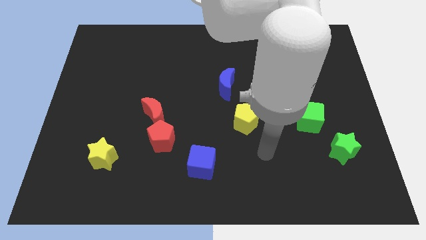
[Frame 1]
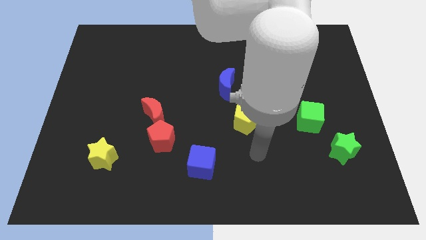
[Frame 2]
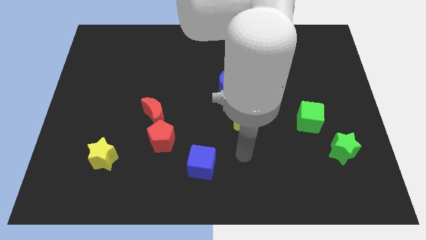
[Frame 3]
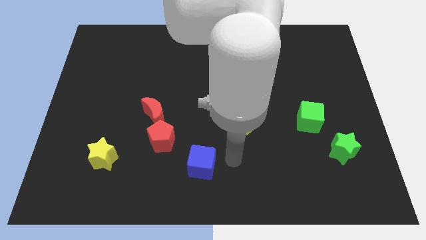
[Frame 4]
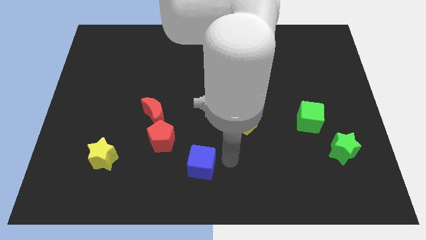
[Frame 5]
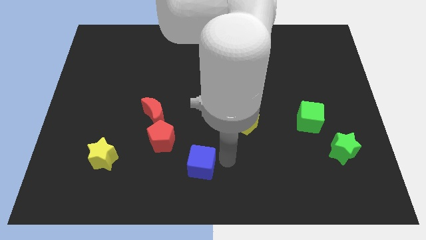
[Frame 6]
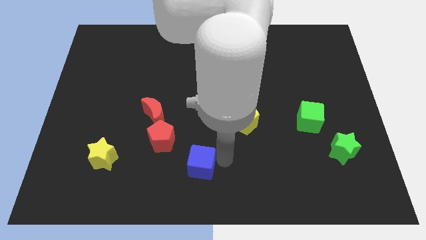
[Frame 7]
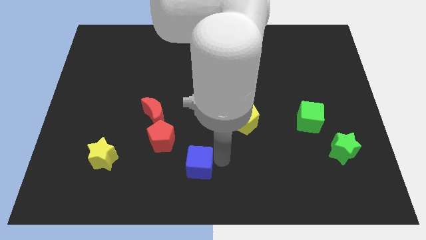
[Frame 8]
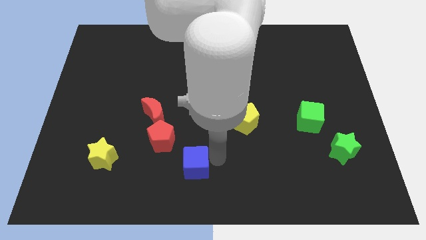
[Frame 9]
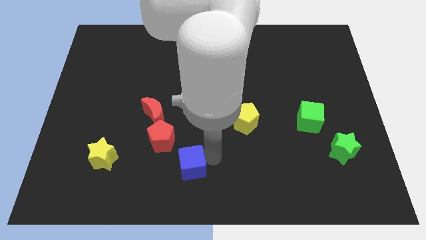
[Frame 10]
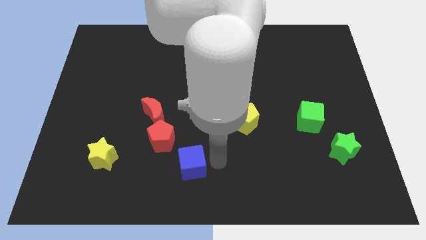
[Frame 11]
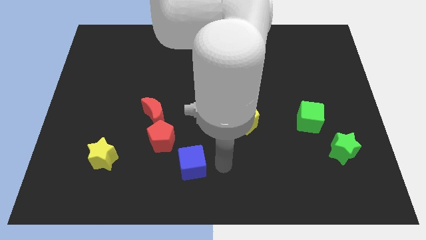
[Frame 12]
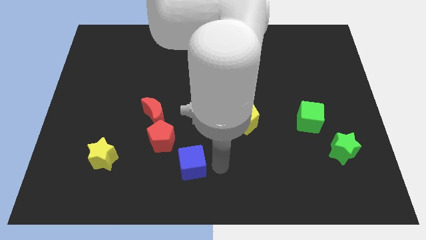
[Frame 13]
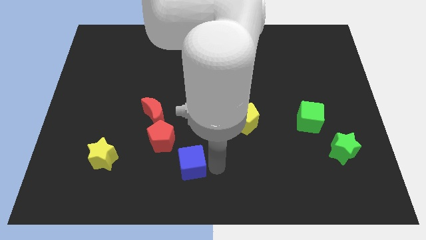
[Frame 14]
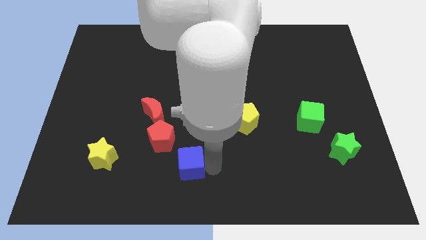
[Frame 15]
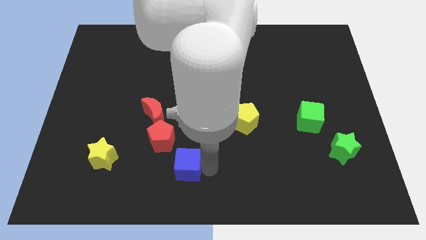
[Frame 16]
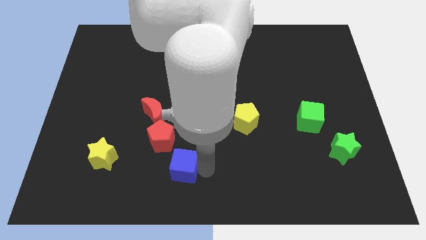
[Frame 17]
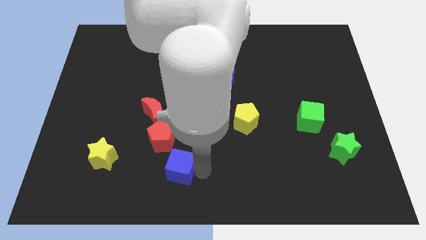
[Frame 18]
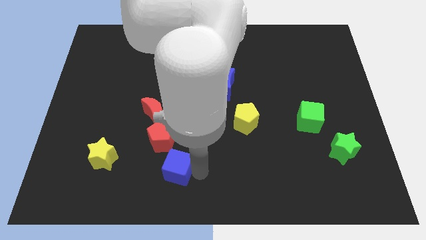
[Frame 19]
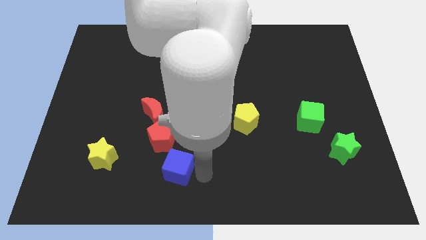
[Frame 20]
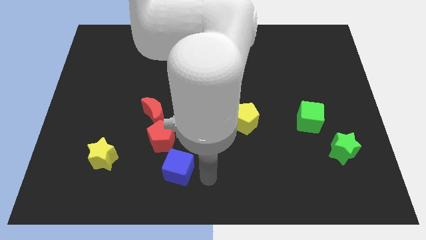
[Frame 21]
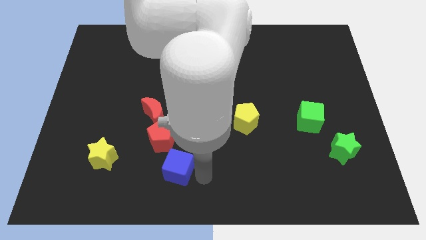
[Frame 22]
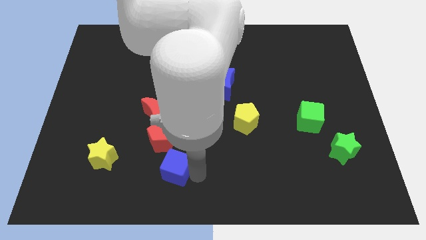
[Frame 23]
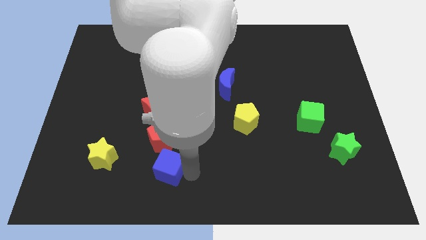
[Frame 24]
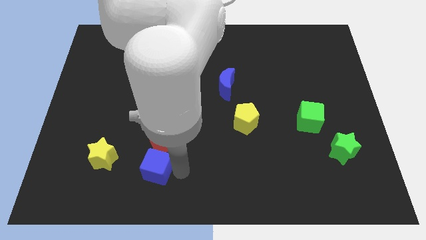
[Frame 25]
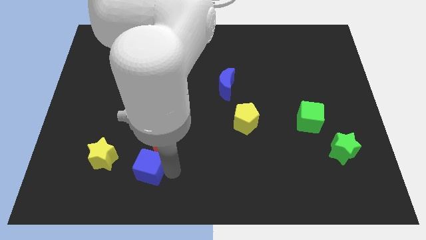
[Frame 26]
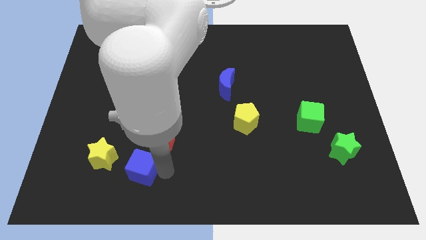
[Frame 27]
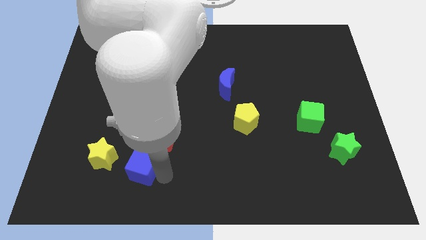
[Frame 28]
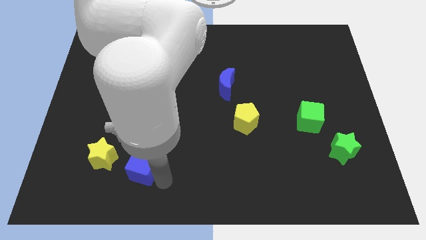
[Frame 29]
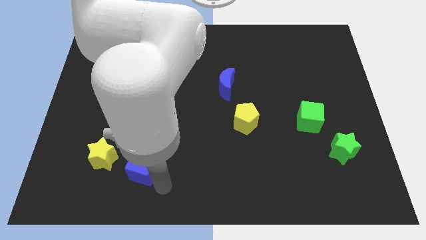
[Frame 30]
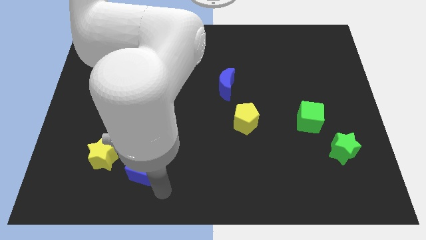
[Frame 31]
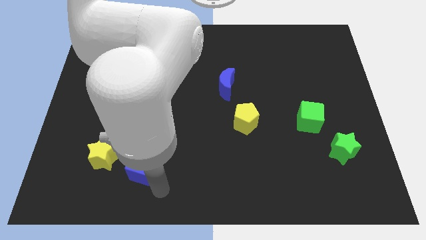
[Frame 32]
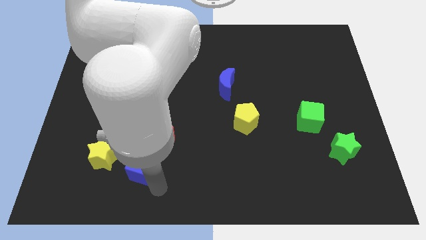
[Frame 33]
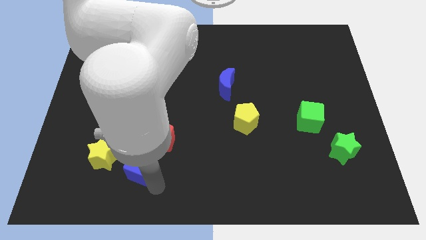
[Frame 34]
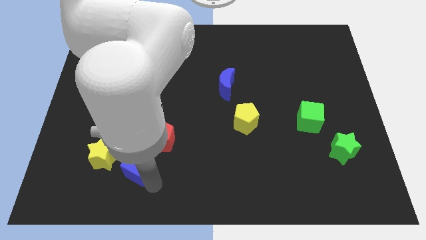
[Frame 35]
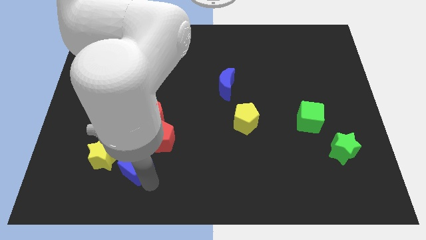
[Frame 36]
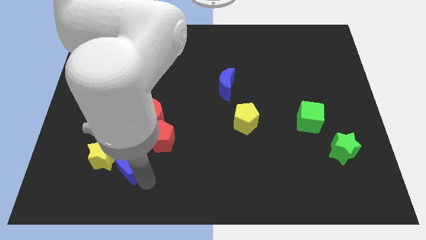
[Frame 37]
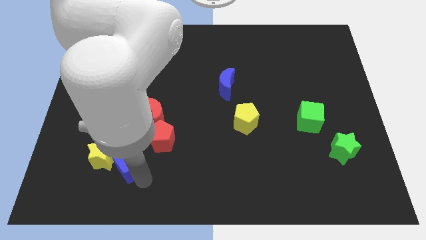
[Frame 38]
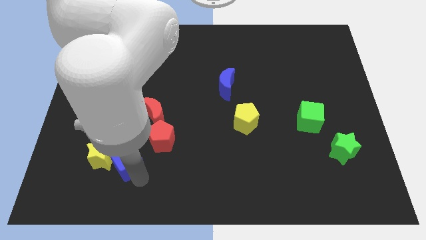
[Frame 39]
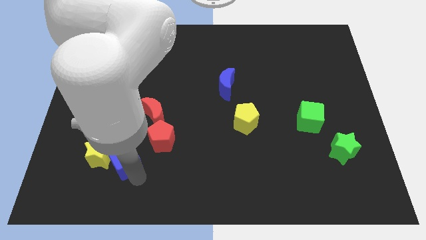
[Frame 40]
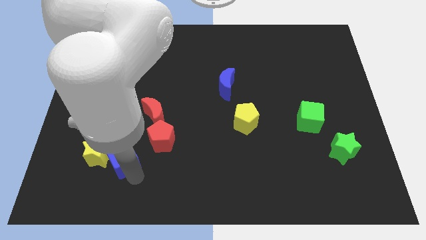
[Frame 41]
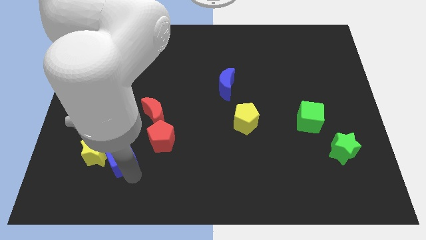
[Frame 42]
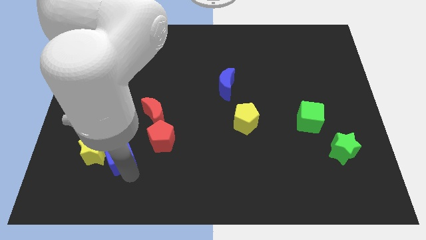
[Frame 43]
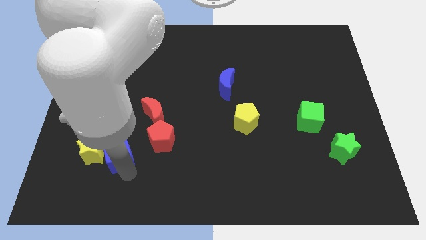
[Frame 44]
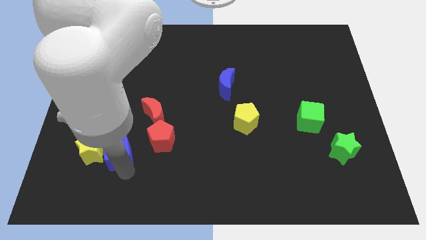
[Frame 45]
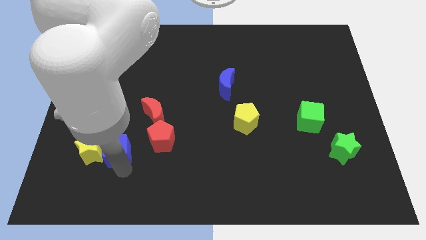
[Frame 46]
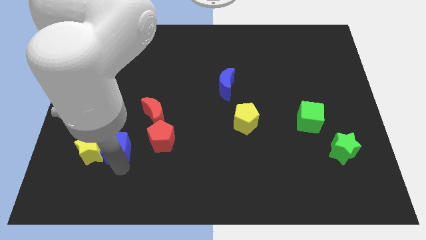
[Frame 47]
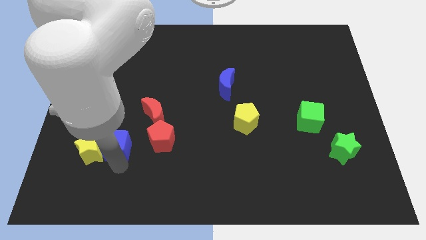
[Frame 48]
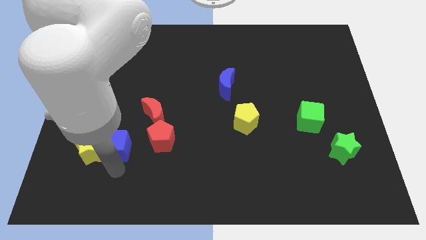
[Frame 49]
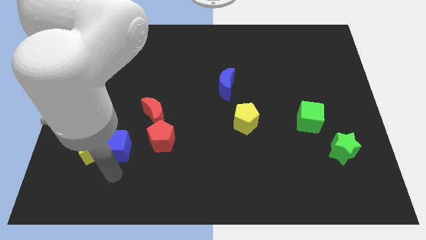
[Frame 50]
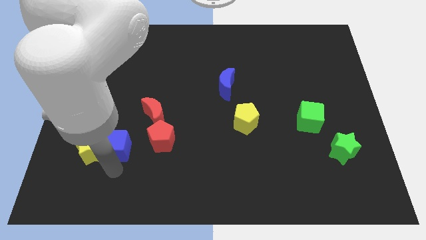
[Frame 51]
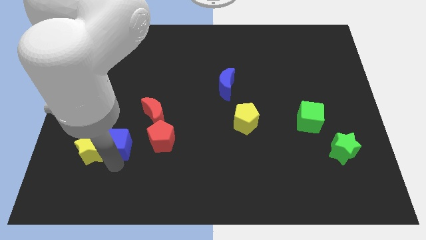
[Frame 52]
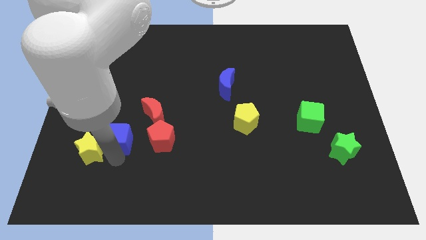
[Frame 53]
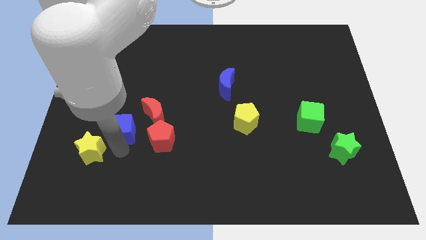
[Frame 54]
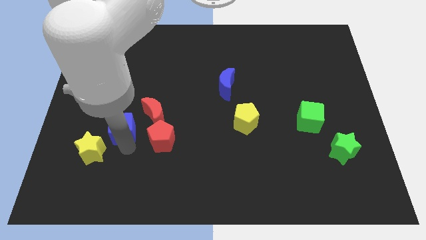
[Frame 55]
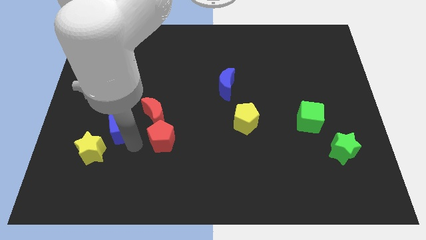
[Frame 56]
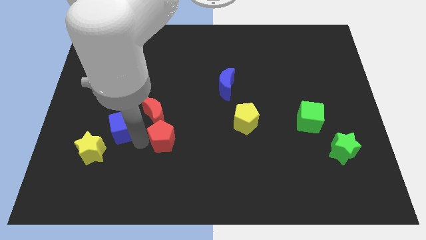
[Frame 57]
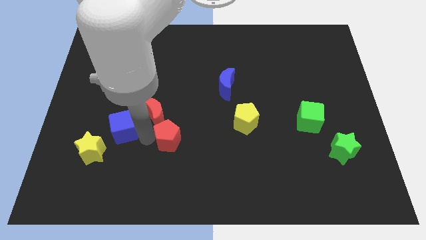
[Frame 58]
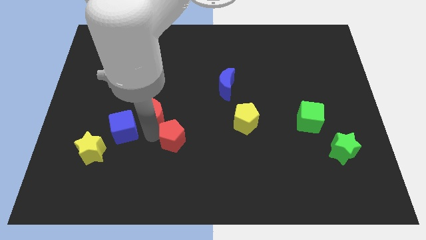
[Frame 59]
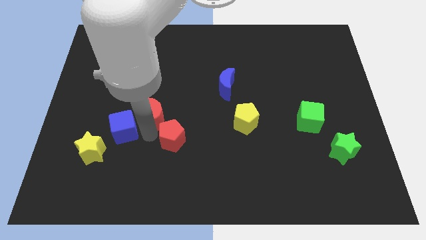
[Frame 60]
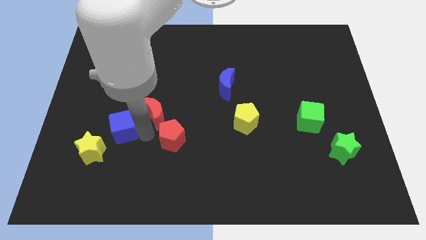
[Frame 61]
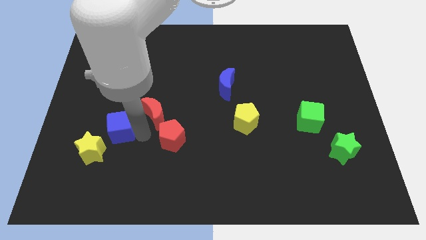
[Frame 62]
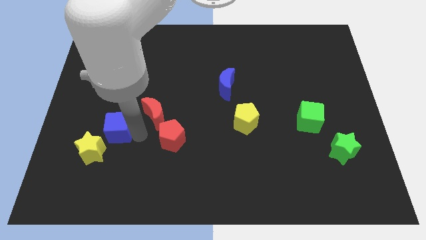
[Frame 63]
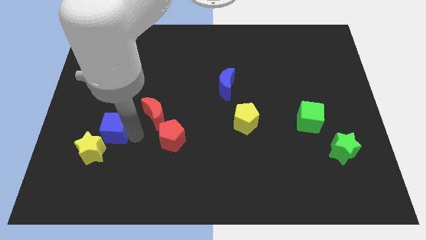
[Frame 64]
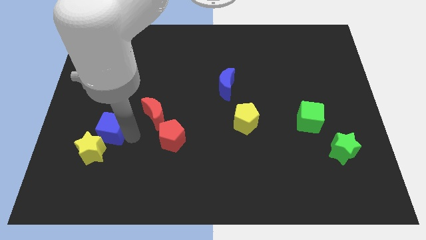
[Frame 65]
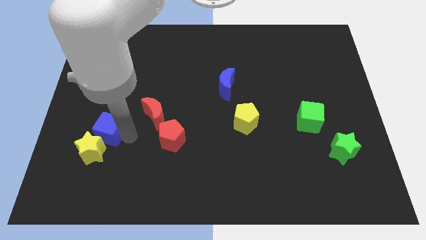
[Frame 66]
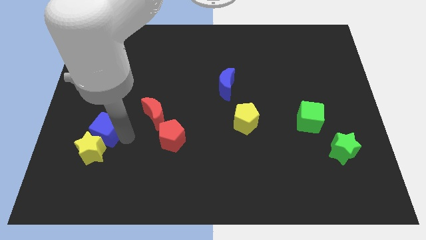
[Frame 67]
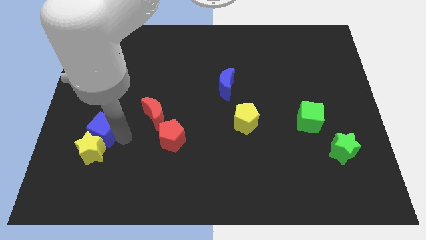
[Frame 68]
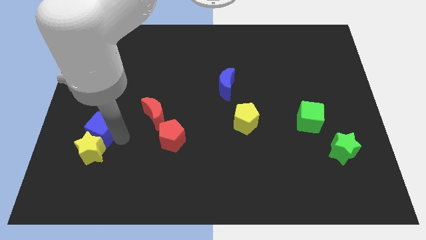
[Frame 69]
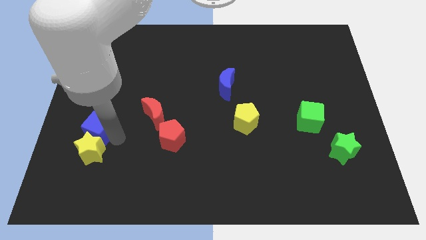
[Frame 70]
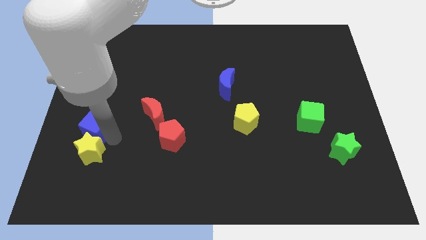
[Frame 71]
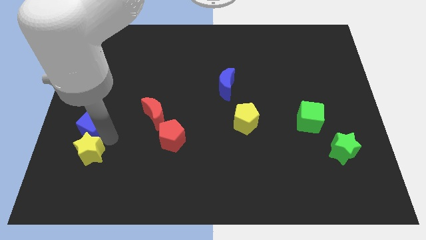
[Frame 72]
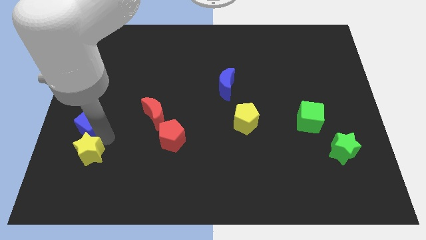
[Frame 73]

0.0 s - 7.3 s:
move the blue cube to the center left
